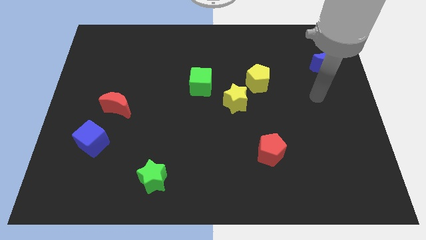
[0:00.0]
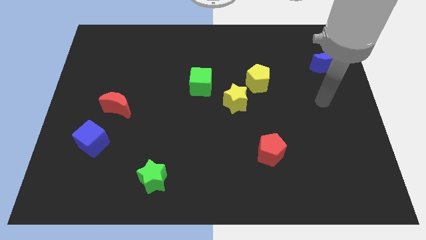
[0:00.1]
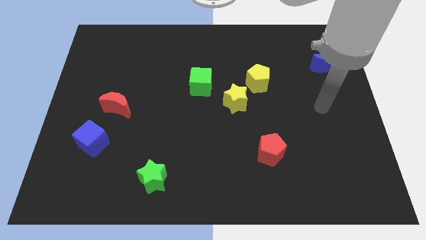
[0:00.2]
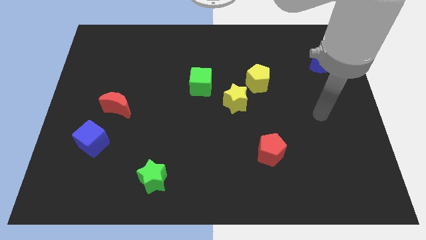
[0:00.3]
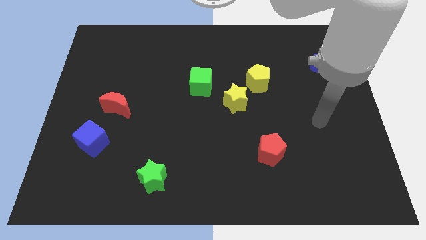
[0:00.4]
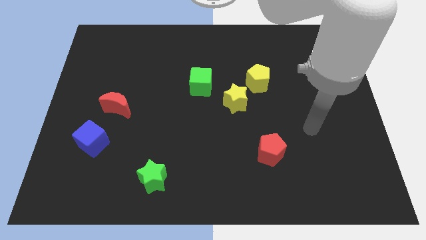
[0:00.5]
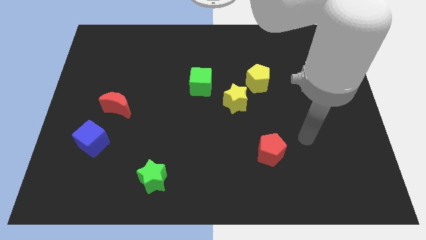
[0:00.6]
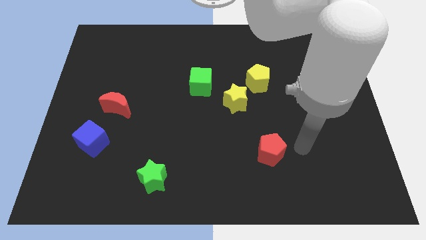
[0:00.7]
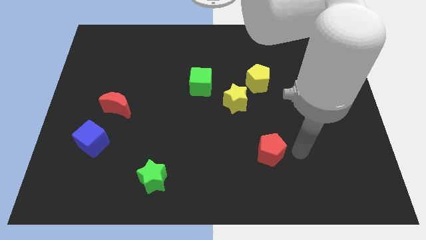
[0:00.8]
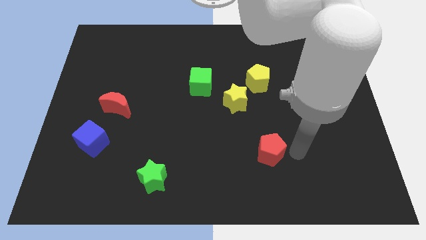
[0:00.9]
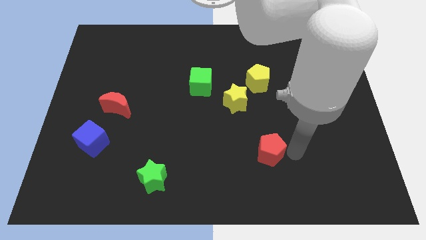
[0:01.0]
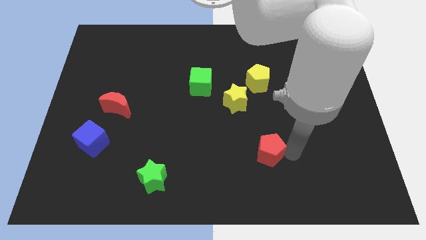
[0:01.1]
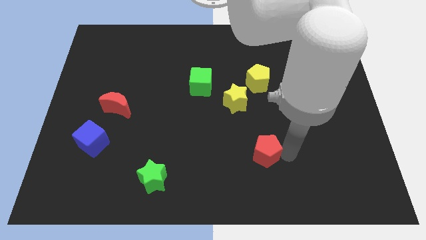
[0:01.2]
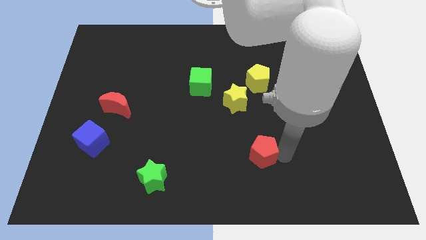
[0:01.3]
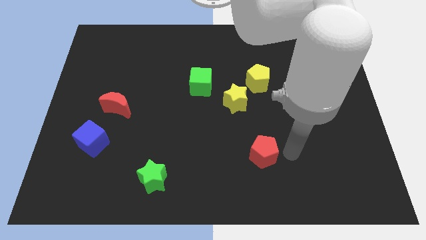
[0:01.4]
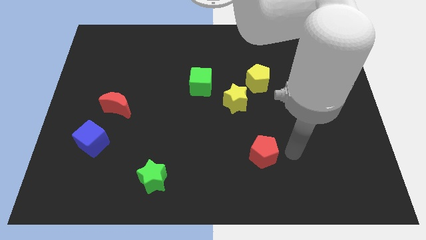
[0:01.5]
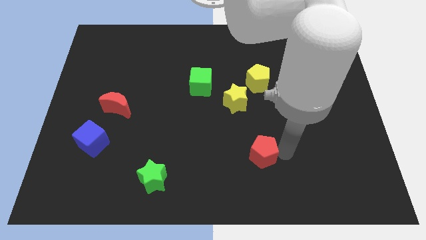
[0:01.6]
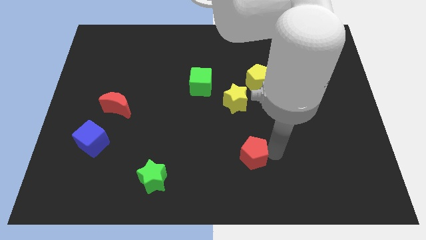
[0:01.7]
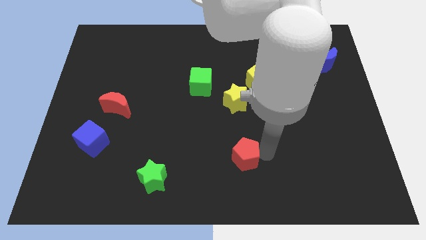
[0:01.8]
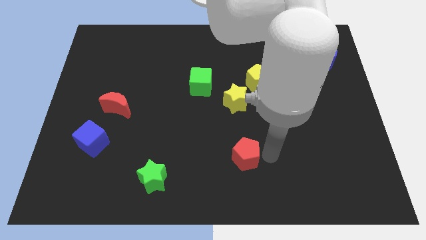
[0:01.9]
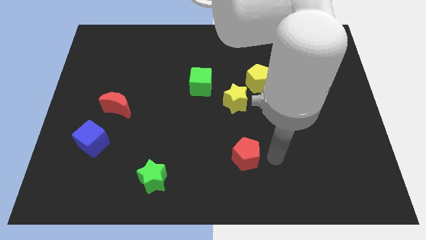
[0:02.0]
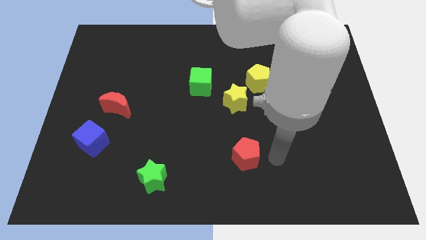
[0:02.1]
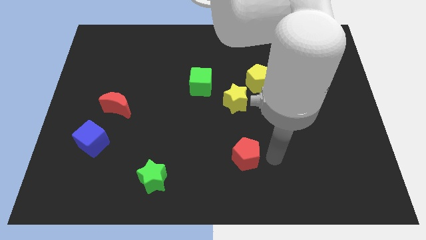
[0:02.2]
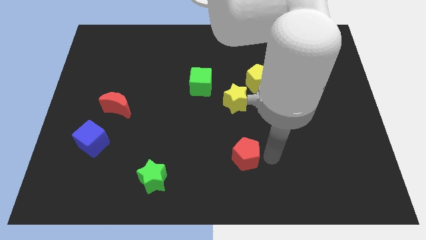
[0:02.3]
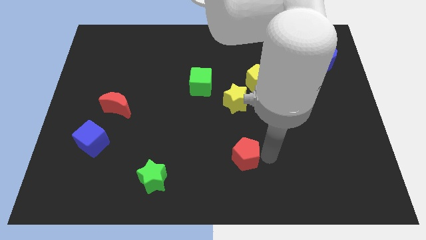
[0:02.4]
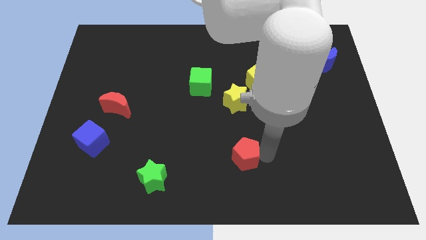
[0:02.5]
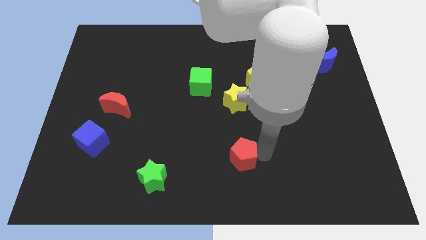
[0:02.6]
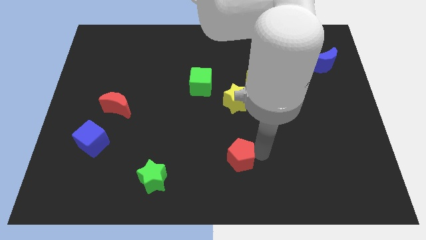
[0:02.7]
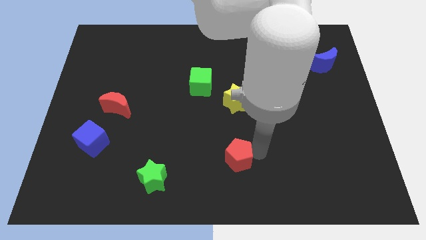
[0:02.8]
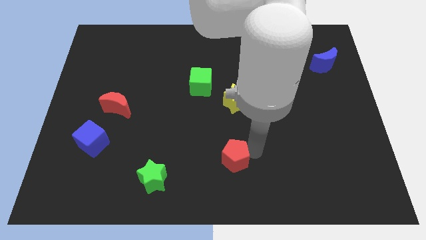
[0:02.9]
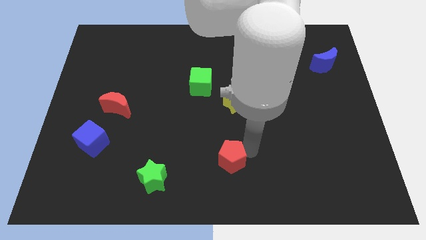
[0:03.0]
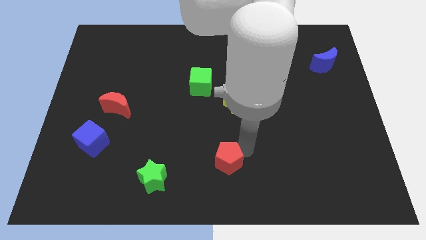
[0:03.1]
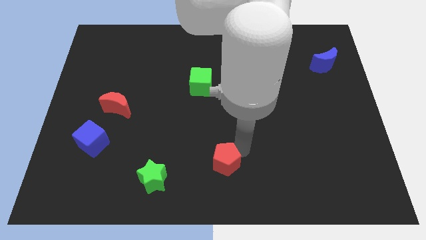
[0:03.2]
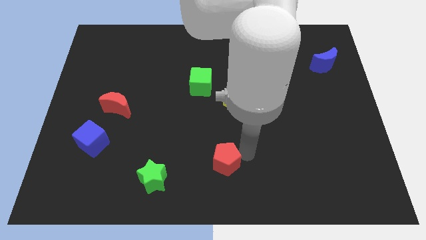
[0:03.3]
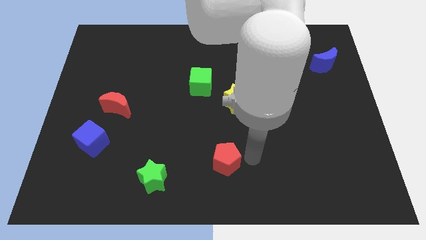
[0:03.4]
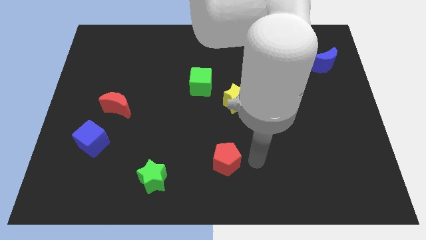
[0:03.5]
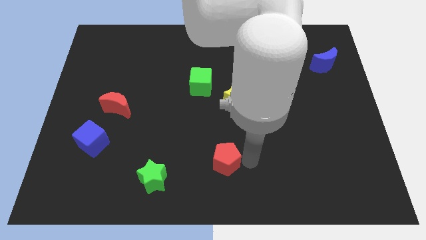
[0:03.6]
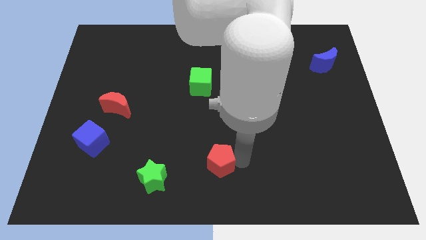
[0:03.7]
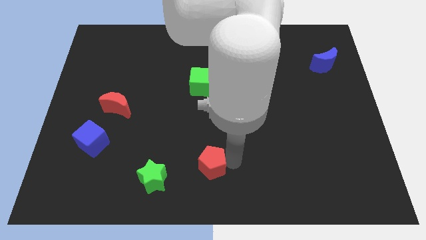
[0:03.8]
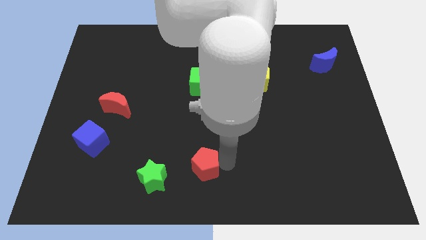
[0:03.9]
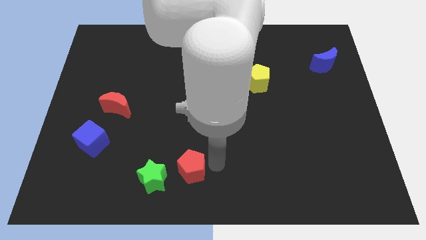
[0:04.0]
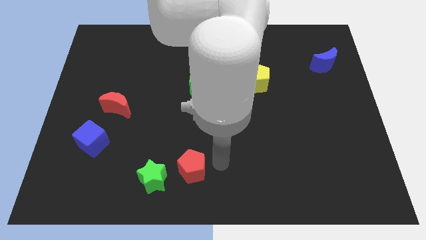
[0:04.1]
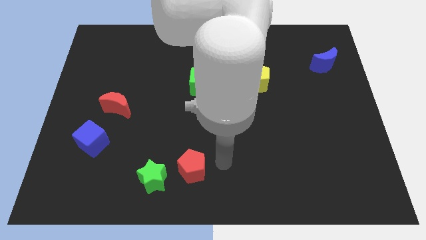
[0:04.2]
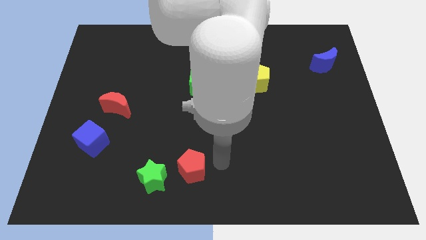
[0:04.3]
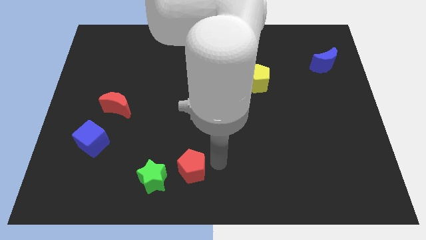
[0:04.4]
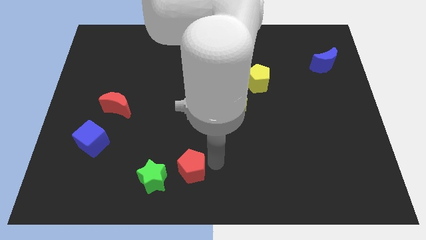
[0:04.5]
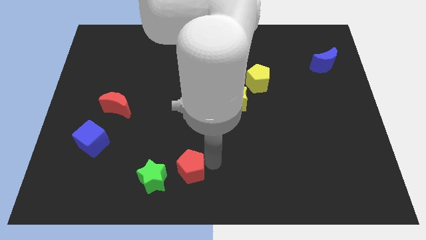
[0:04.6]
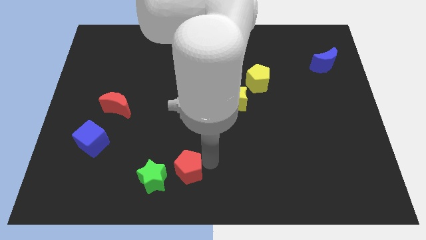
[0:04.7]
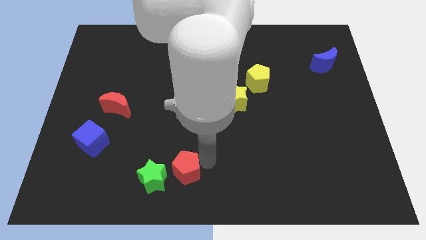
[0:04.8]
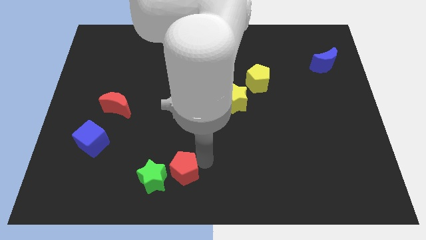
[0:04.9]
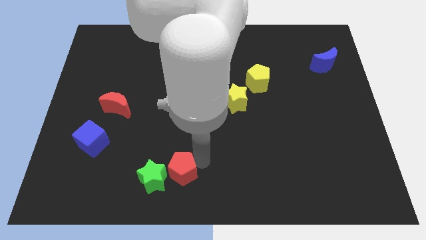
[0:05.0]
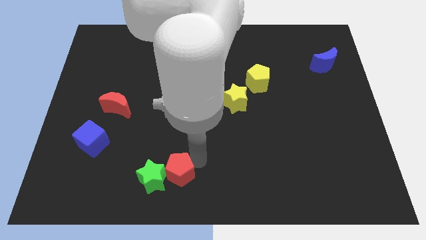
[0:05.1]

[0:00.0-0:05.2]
push the red pentagon close to the green star

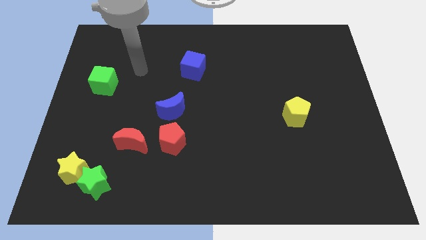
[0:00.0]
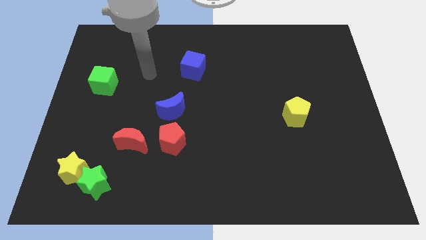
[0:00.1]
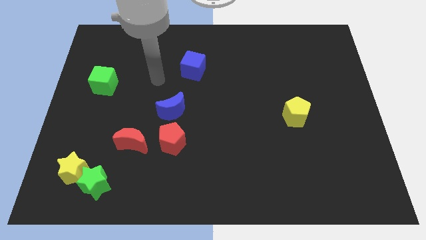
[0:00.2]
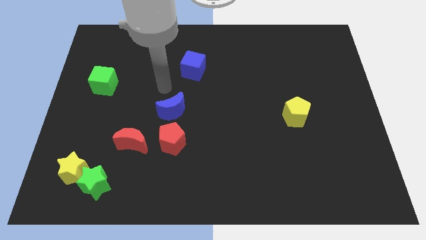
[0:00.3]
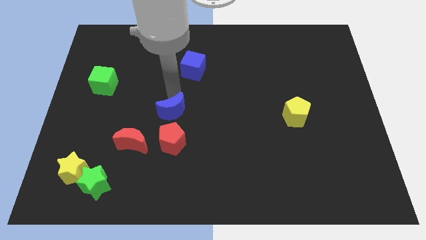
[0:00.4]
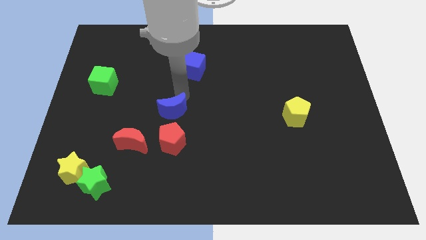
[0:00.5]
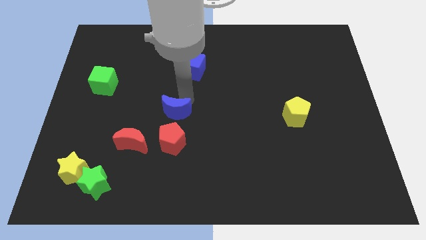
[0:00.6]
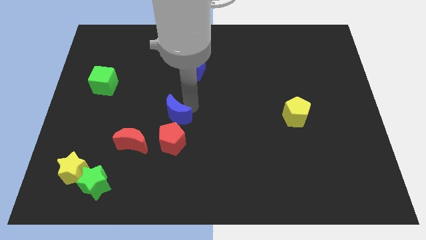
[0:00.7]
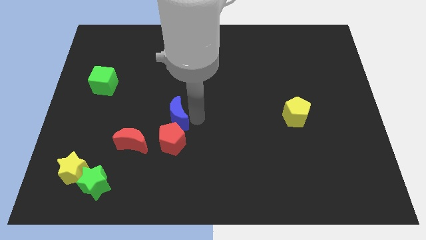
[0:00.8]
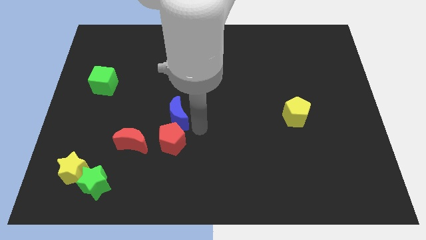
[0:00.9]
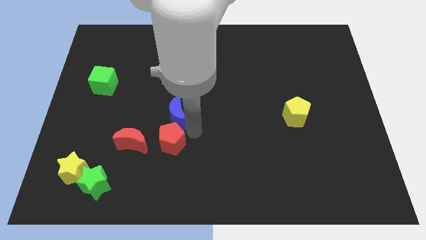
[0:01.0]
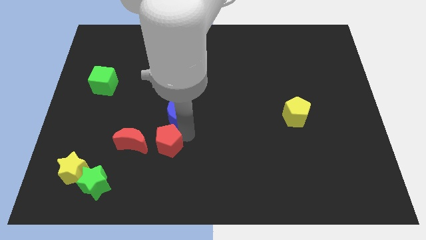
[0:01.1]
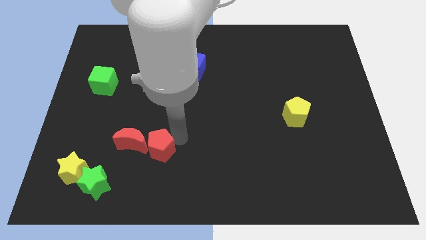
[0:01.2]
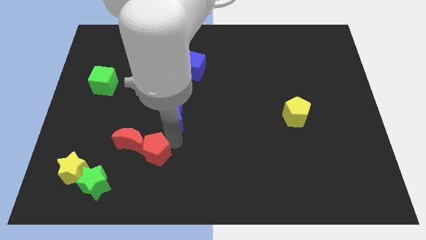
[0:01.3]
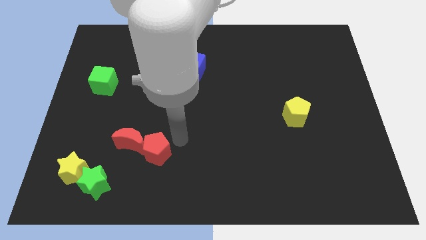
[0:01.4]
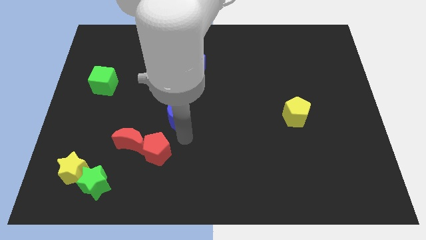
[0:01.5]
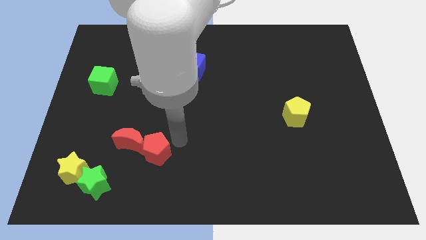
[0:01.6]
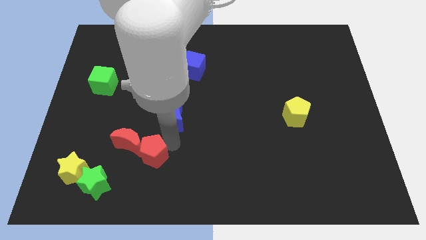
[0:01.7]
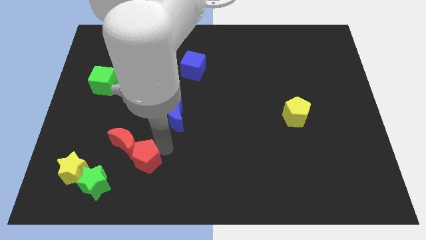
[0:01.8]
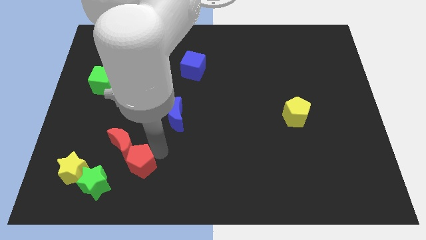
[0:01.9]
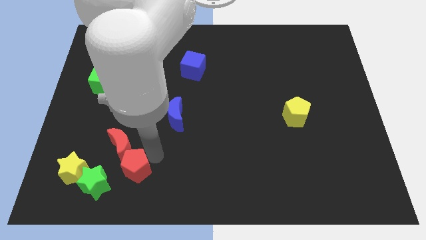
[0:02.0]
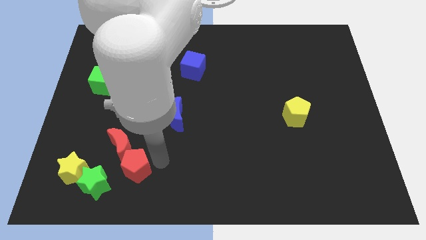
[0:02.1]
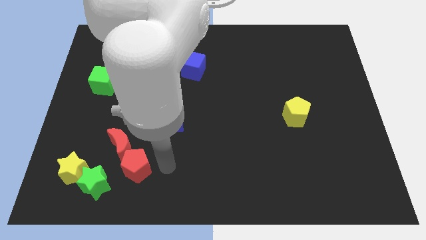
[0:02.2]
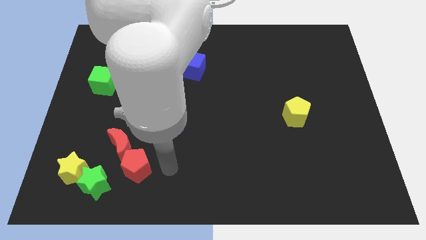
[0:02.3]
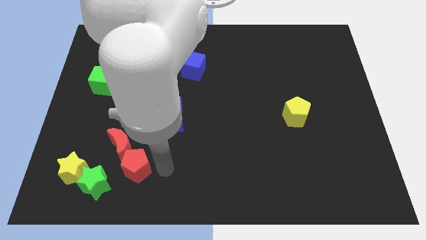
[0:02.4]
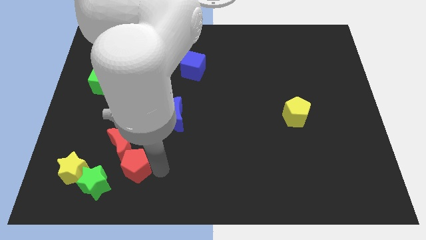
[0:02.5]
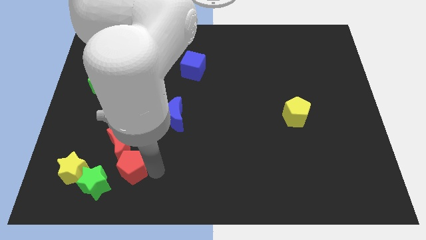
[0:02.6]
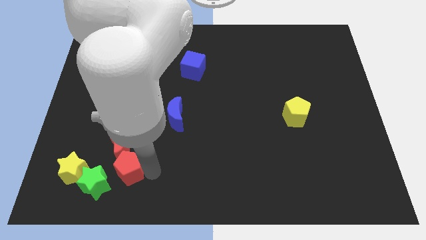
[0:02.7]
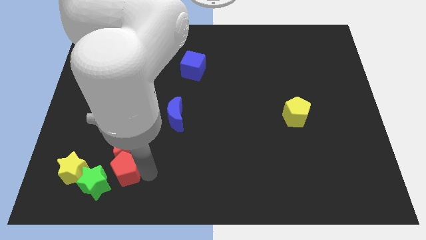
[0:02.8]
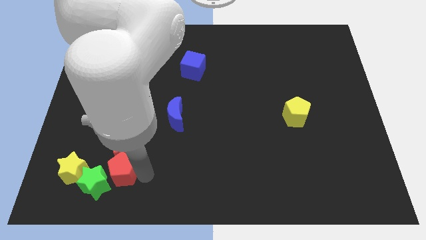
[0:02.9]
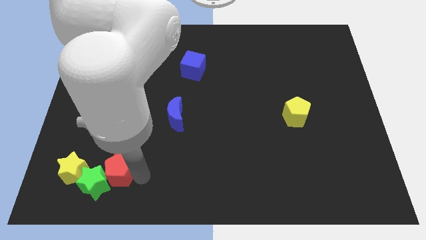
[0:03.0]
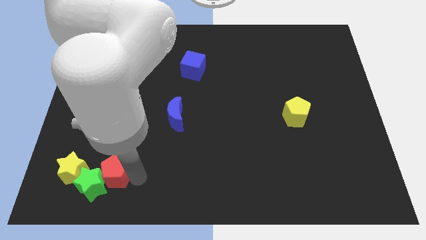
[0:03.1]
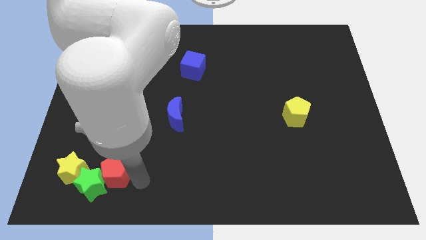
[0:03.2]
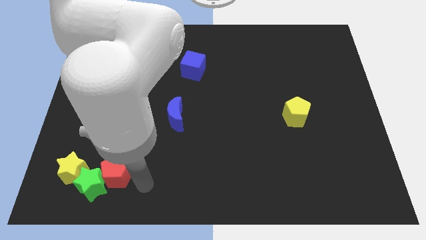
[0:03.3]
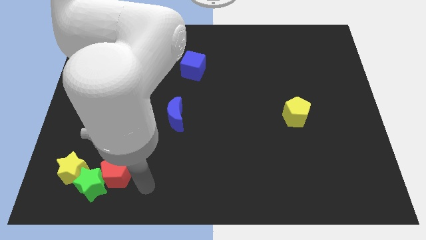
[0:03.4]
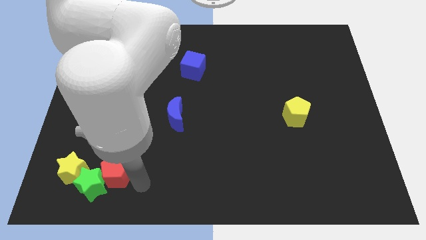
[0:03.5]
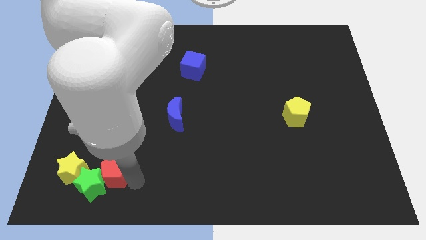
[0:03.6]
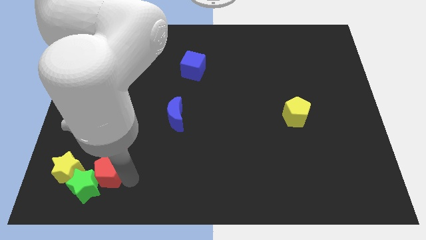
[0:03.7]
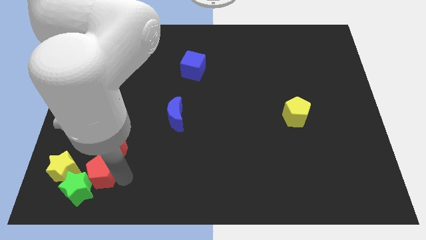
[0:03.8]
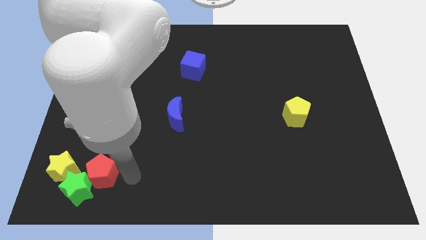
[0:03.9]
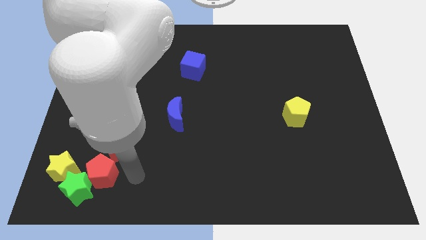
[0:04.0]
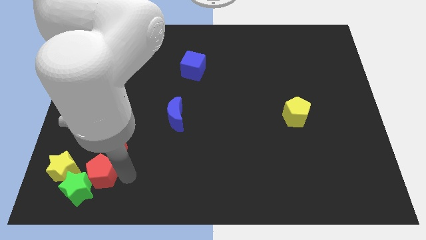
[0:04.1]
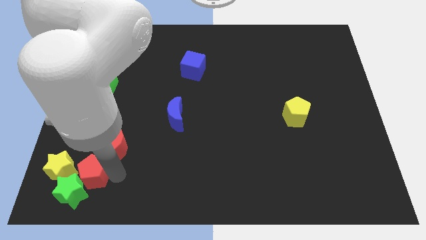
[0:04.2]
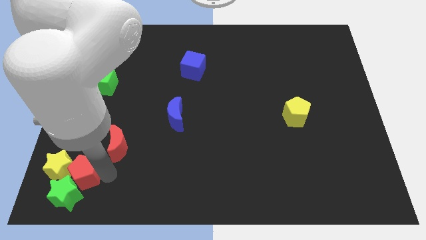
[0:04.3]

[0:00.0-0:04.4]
slide the red pentagon next to the yellow star
